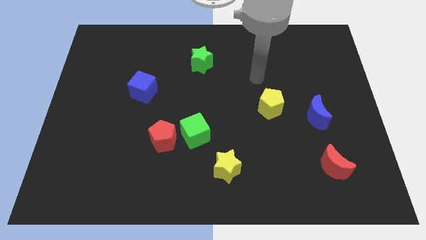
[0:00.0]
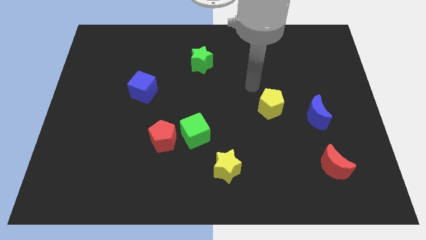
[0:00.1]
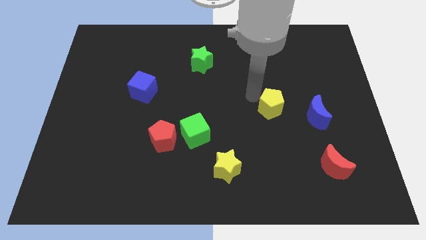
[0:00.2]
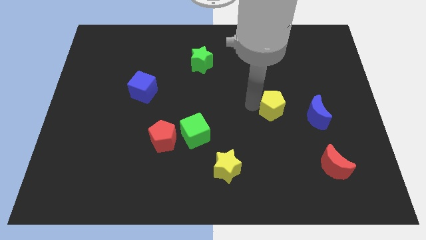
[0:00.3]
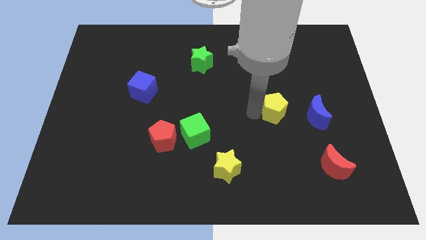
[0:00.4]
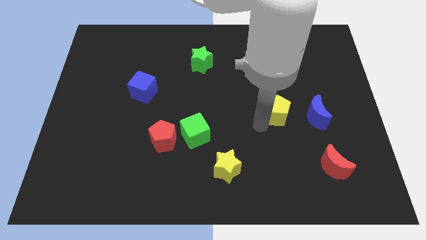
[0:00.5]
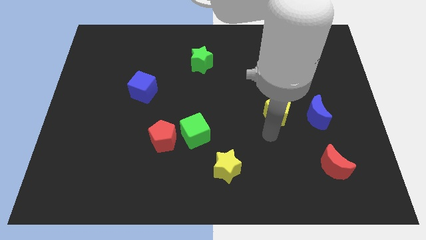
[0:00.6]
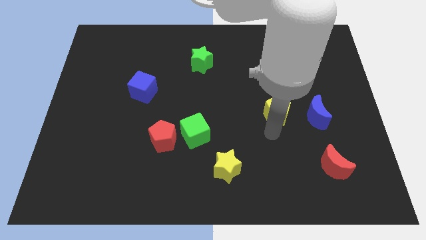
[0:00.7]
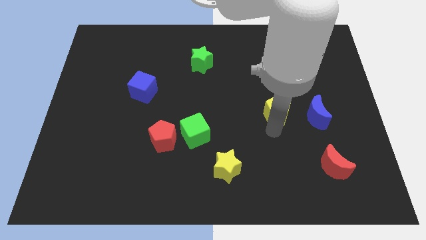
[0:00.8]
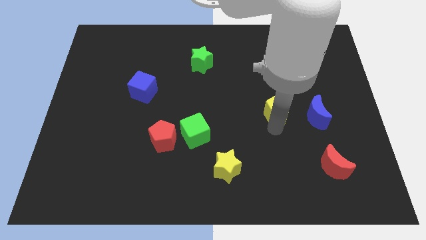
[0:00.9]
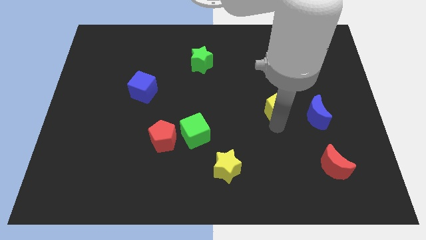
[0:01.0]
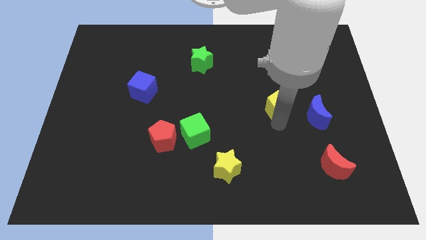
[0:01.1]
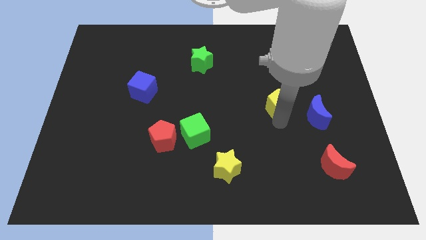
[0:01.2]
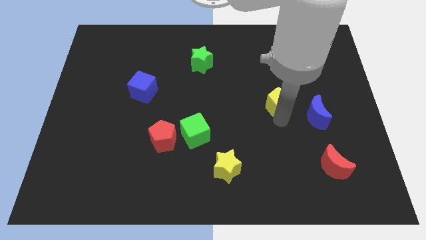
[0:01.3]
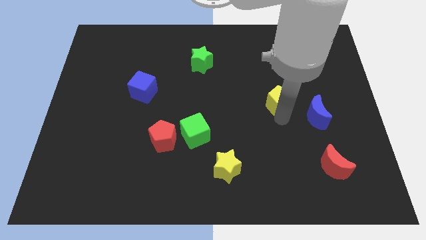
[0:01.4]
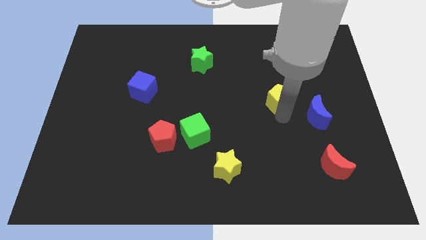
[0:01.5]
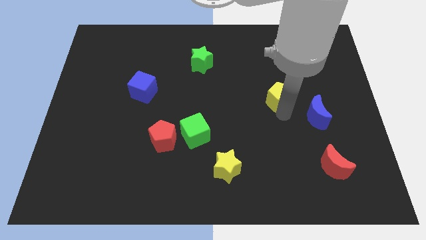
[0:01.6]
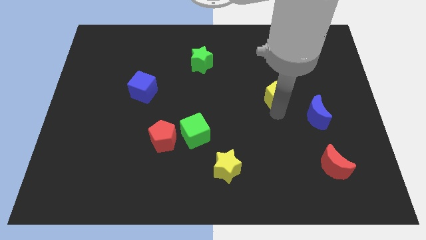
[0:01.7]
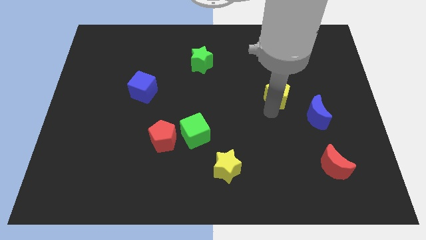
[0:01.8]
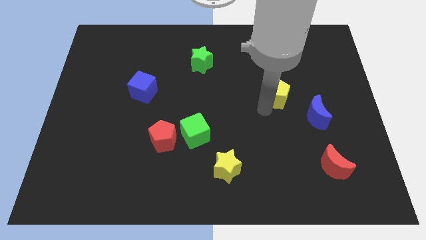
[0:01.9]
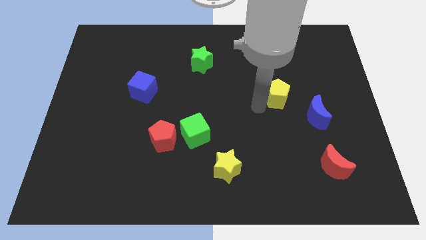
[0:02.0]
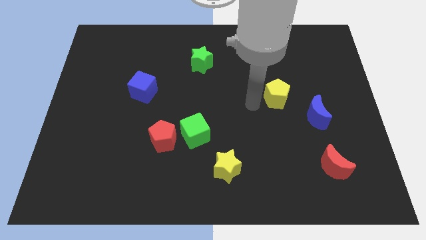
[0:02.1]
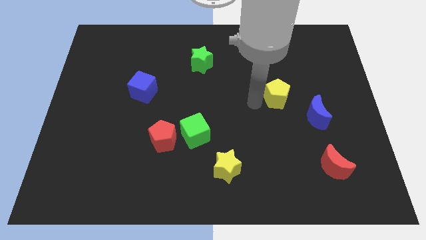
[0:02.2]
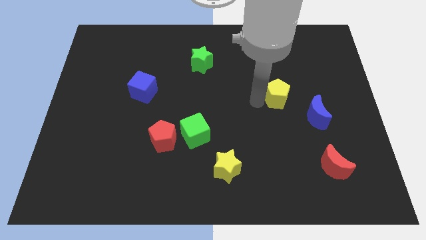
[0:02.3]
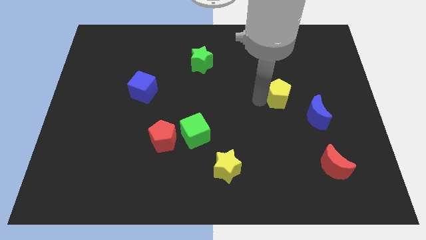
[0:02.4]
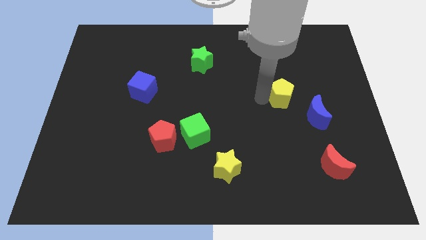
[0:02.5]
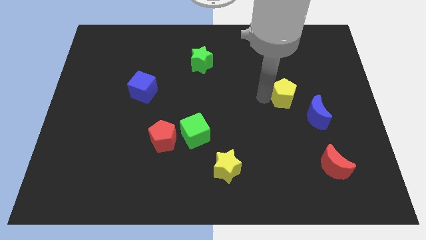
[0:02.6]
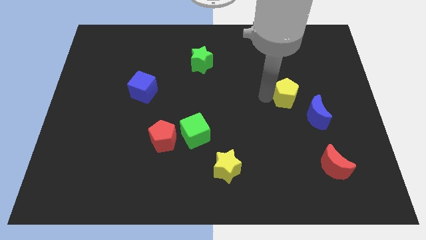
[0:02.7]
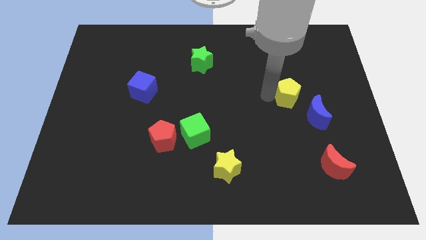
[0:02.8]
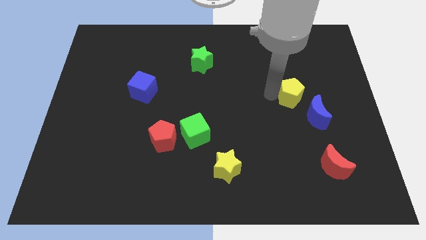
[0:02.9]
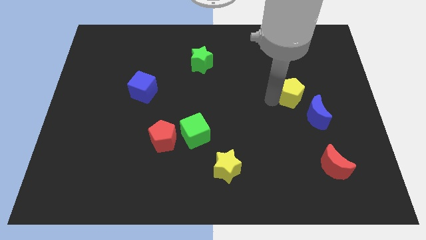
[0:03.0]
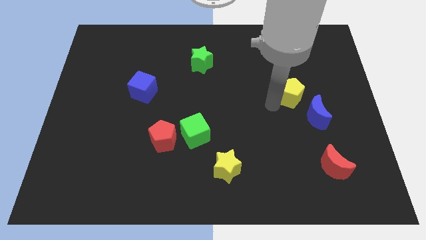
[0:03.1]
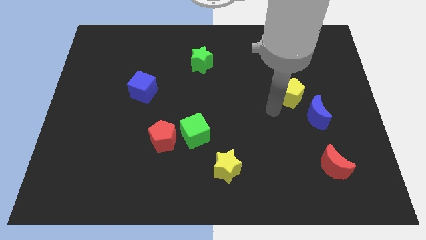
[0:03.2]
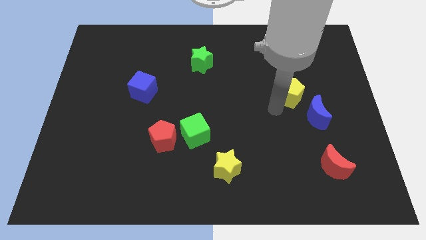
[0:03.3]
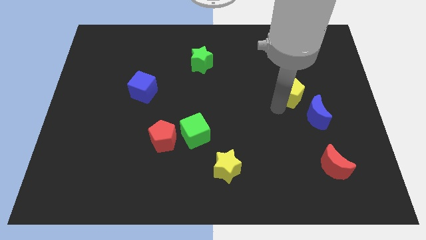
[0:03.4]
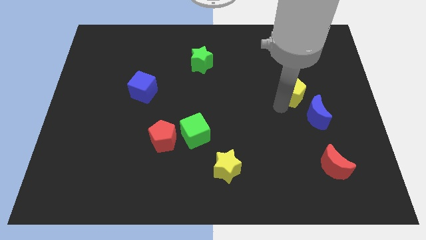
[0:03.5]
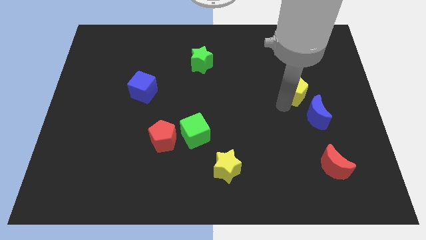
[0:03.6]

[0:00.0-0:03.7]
push the yellow pentagon a little bit diagonally upwards and to the right

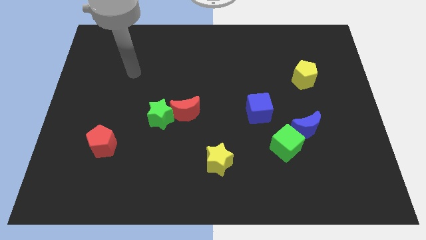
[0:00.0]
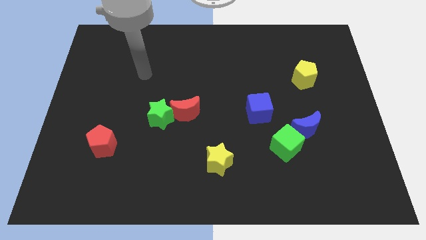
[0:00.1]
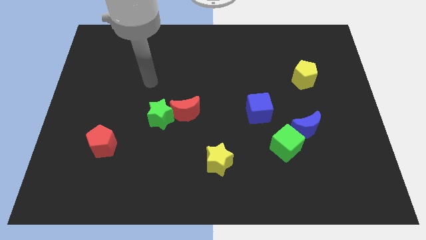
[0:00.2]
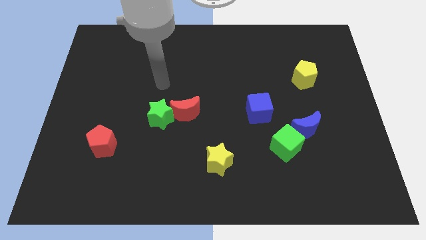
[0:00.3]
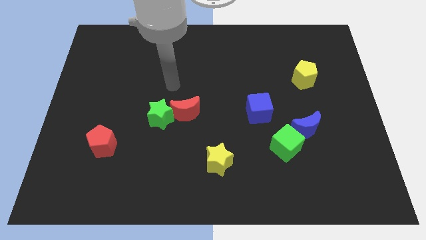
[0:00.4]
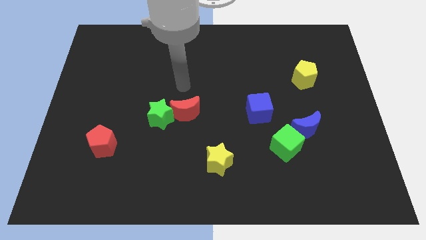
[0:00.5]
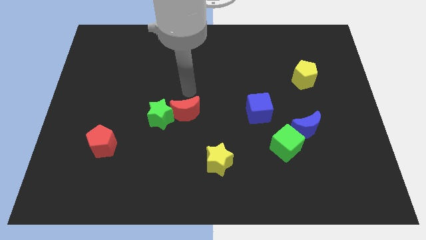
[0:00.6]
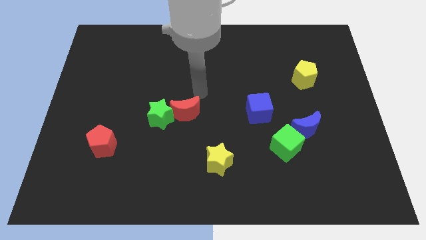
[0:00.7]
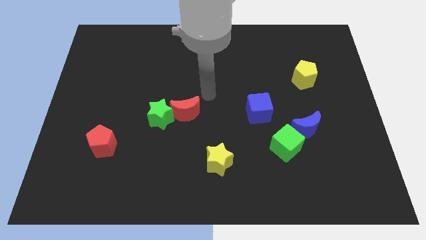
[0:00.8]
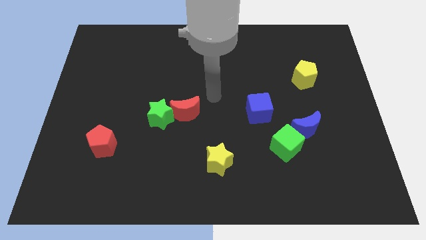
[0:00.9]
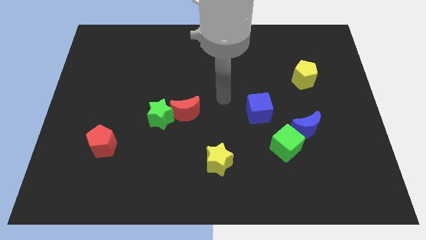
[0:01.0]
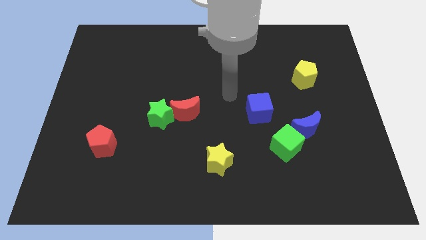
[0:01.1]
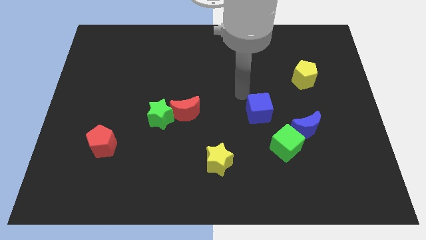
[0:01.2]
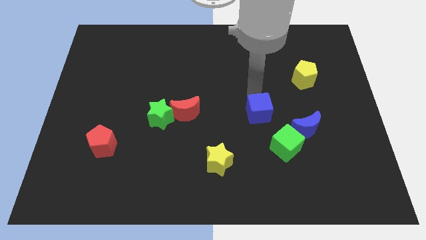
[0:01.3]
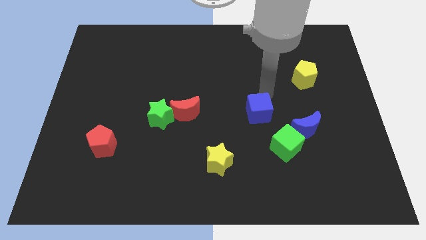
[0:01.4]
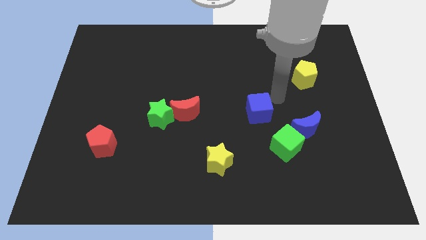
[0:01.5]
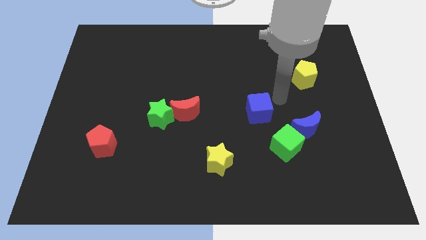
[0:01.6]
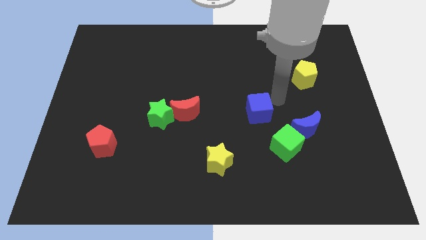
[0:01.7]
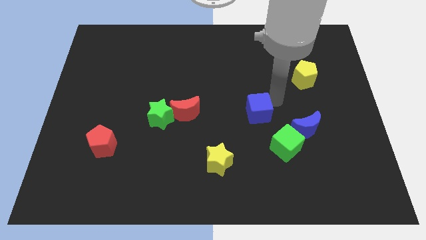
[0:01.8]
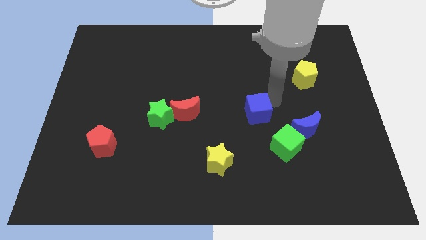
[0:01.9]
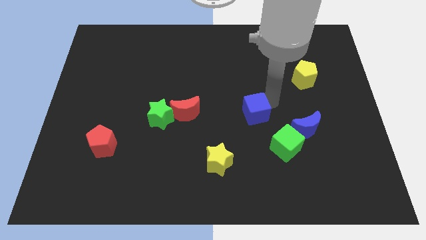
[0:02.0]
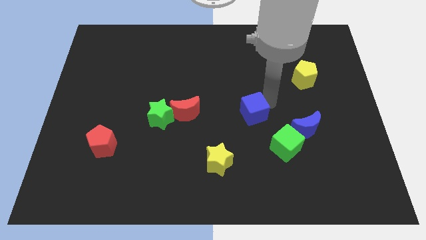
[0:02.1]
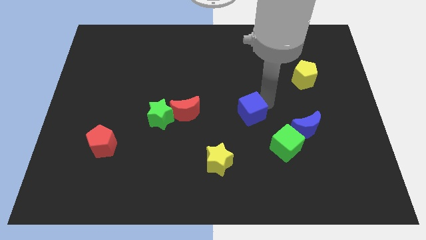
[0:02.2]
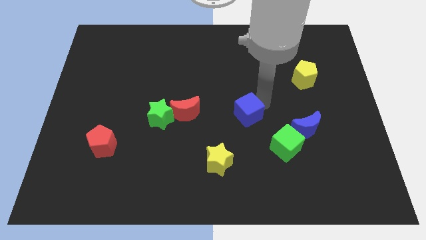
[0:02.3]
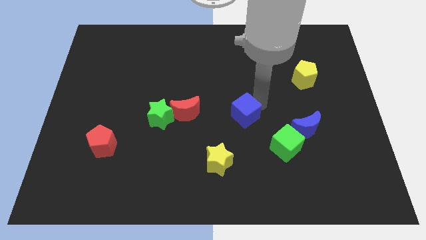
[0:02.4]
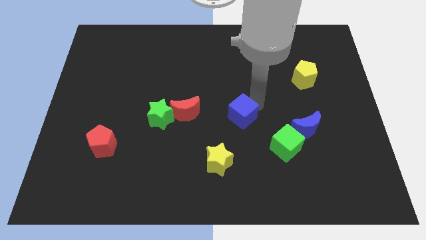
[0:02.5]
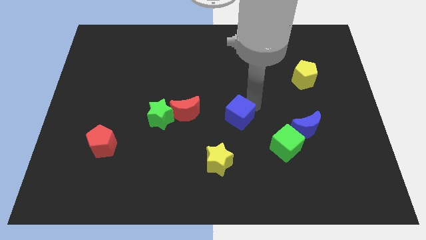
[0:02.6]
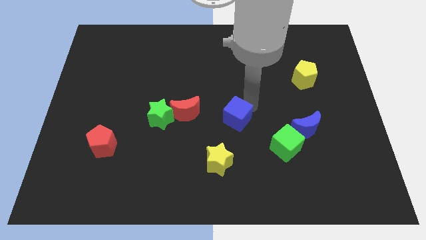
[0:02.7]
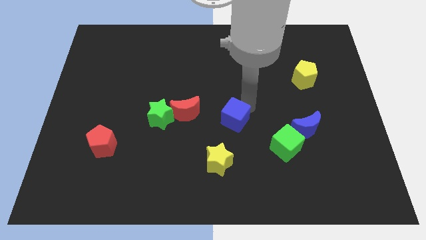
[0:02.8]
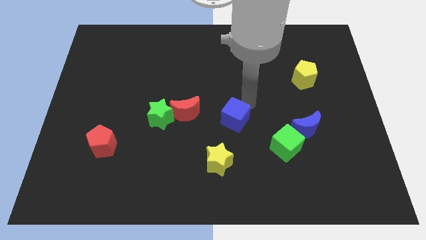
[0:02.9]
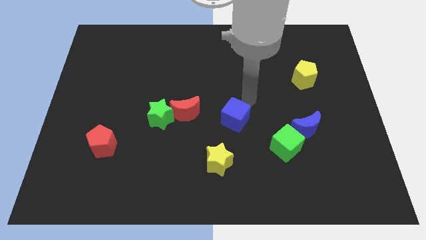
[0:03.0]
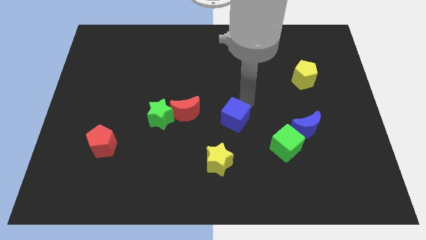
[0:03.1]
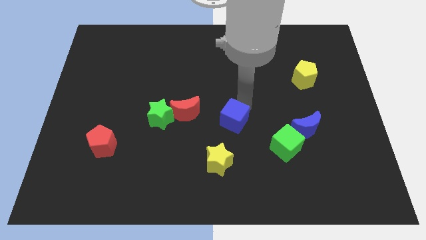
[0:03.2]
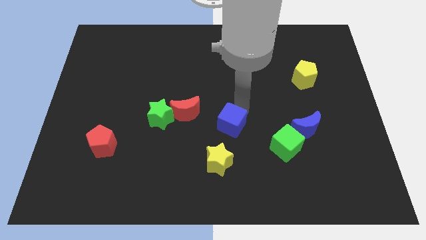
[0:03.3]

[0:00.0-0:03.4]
slide the blue cube diagonally downwards and left a bit

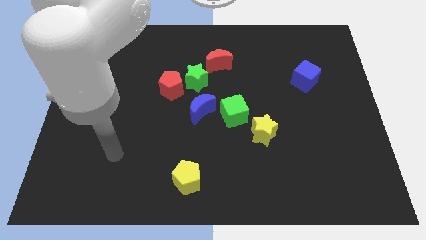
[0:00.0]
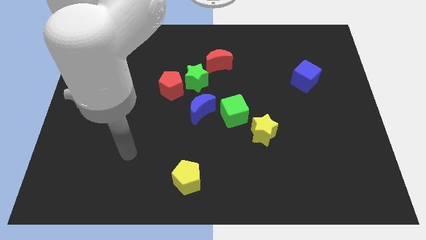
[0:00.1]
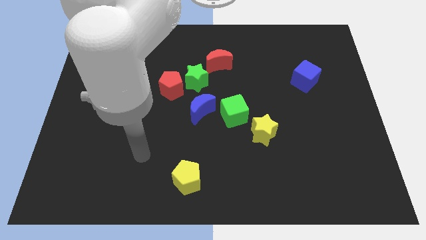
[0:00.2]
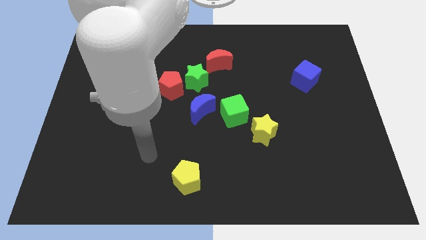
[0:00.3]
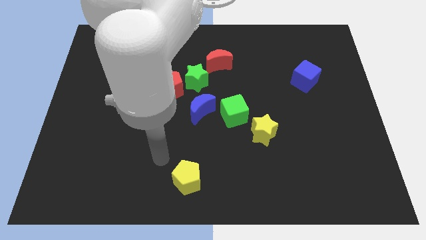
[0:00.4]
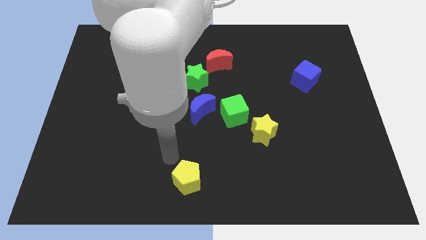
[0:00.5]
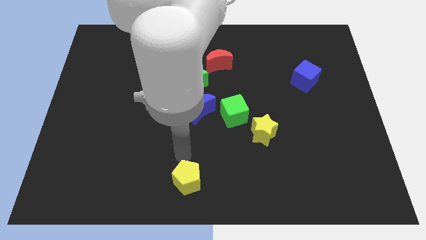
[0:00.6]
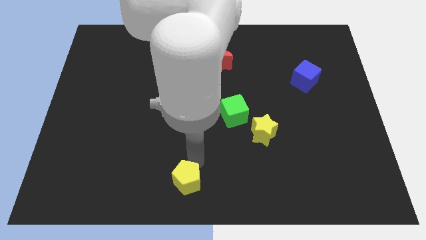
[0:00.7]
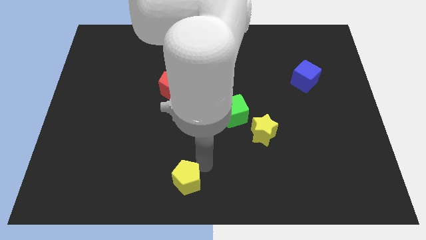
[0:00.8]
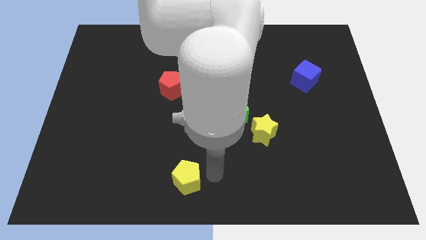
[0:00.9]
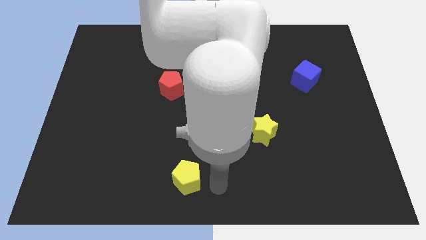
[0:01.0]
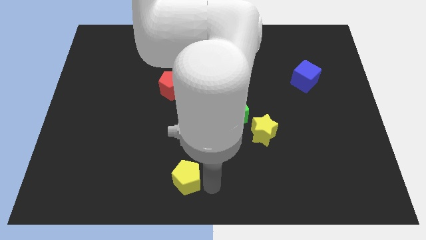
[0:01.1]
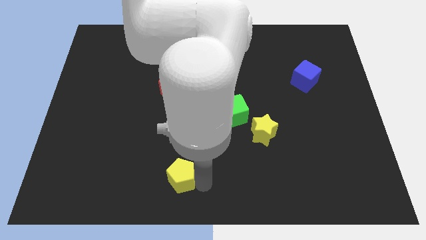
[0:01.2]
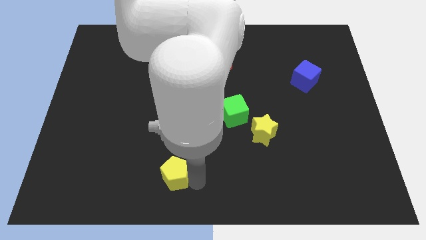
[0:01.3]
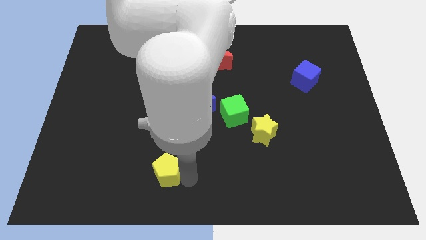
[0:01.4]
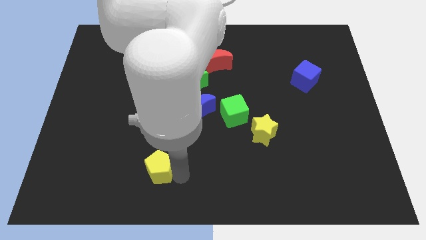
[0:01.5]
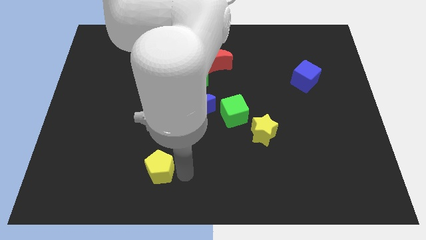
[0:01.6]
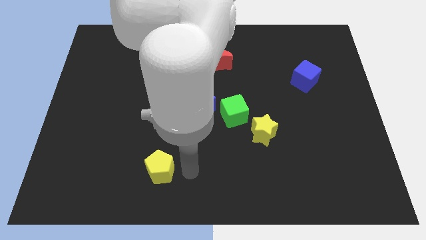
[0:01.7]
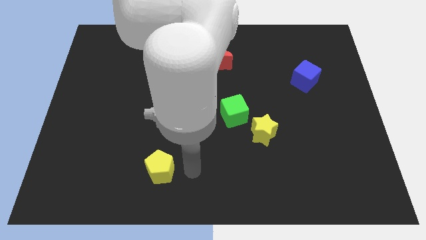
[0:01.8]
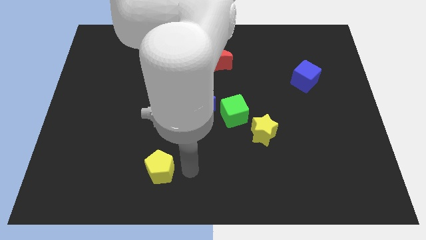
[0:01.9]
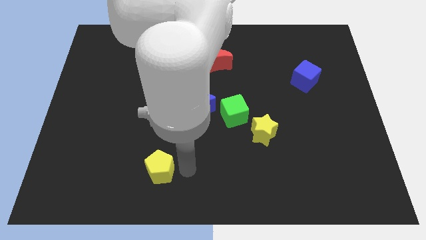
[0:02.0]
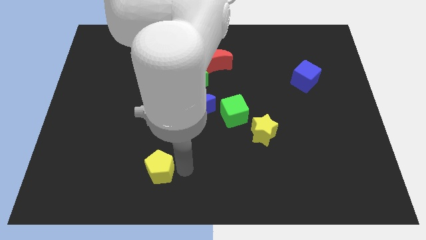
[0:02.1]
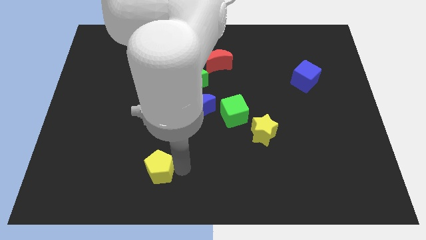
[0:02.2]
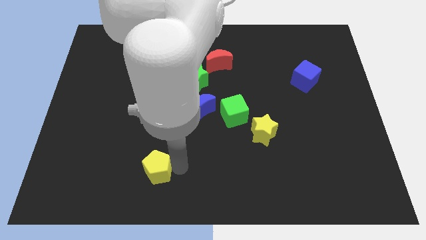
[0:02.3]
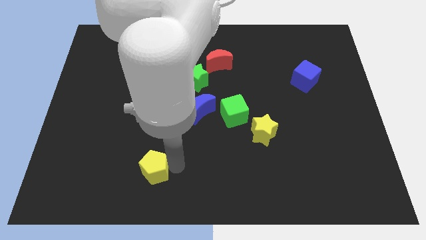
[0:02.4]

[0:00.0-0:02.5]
move the yellow pentagon left slightly
